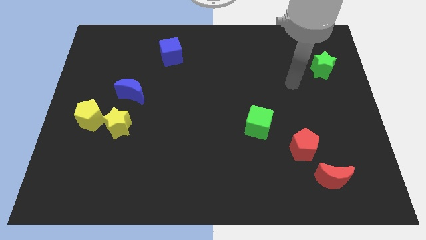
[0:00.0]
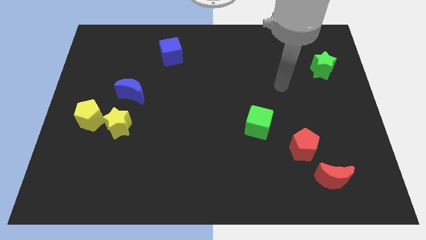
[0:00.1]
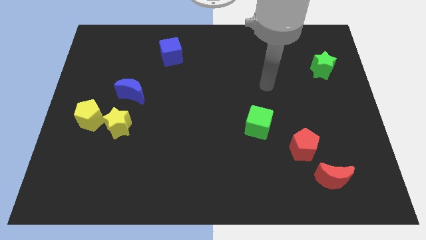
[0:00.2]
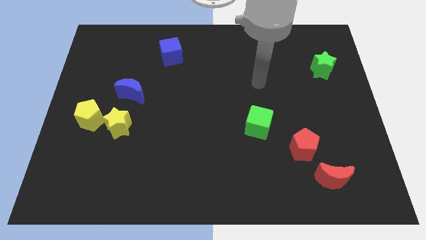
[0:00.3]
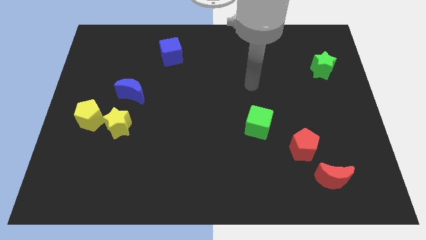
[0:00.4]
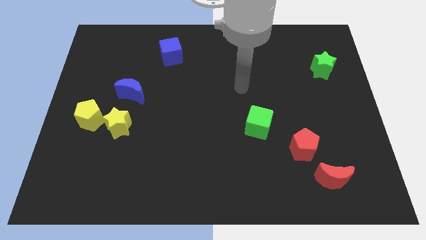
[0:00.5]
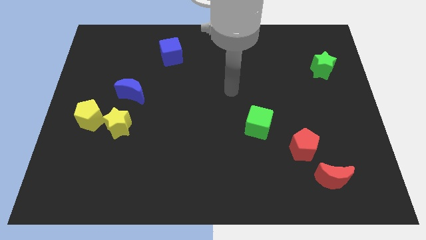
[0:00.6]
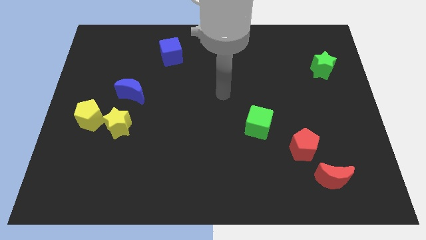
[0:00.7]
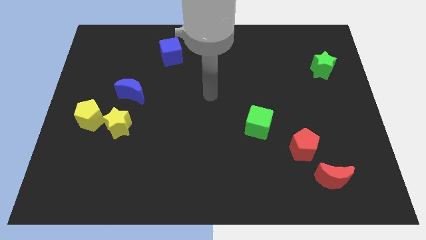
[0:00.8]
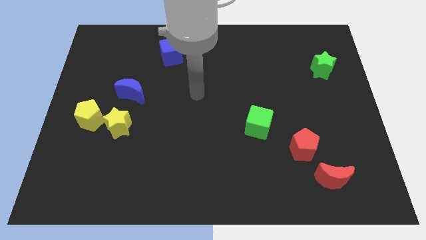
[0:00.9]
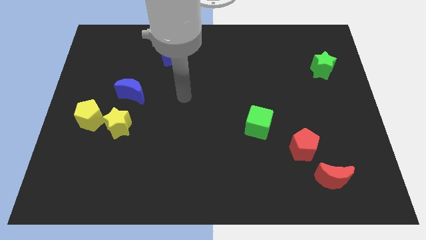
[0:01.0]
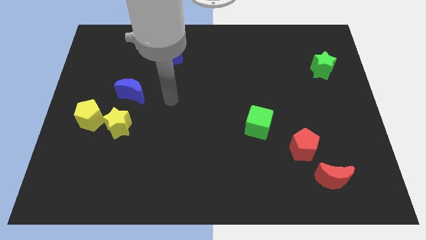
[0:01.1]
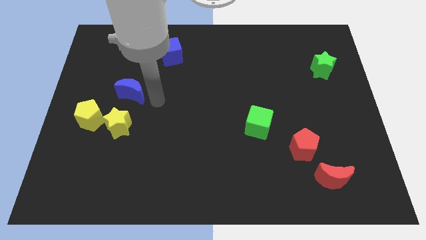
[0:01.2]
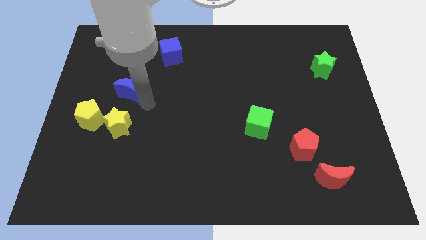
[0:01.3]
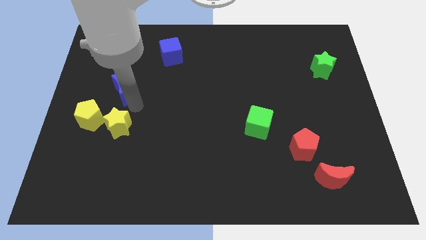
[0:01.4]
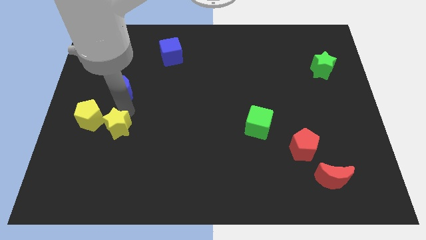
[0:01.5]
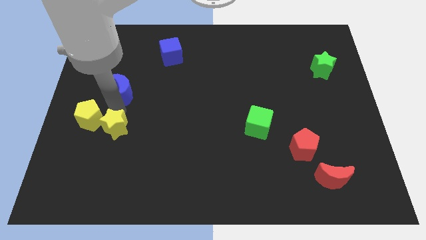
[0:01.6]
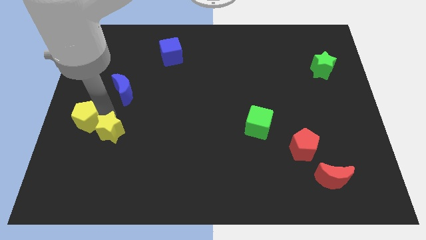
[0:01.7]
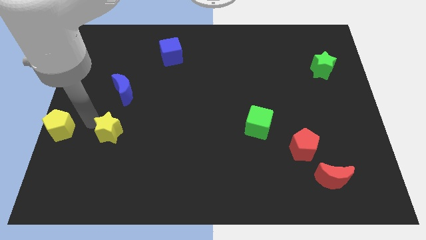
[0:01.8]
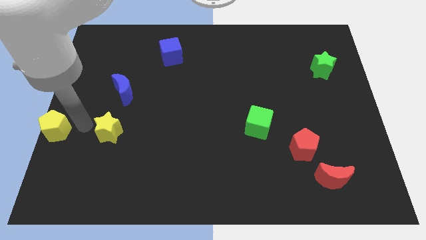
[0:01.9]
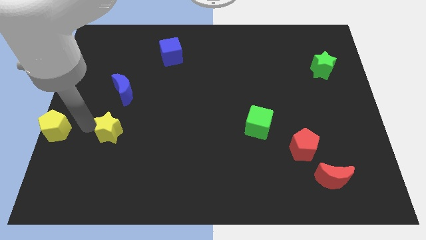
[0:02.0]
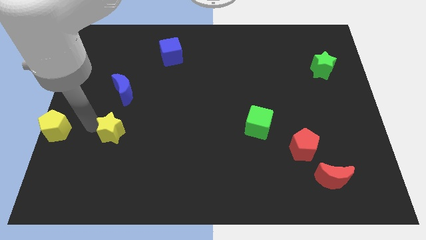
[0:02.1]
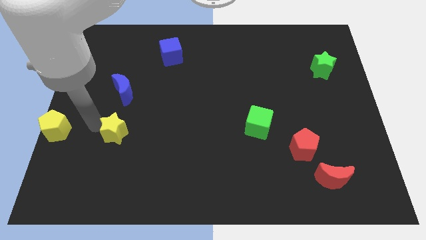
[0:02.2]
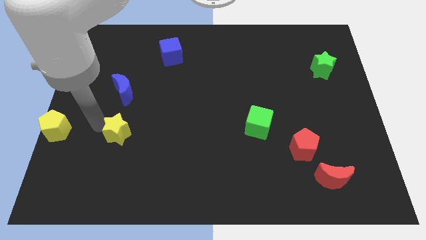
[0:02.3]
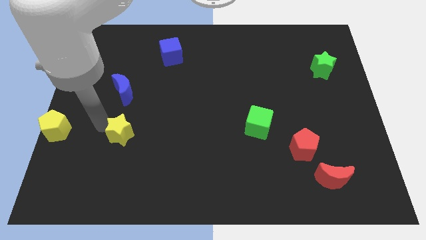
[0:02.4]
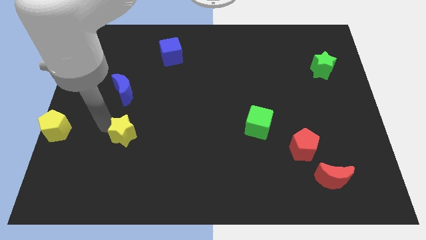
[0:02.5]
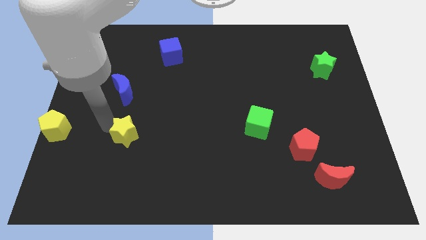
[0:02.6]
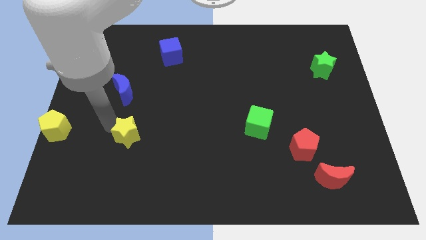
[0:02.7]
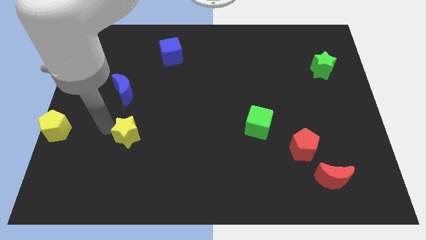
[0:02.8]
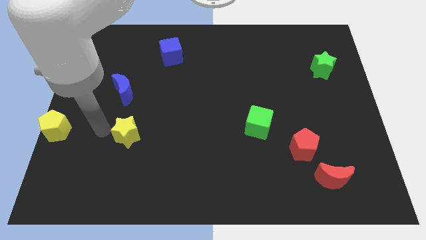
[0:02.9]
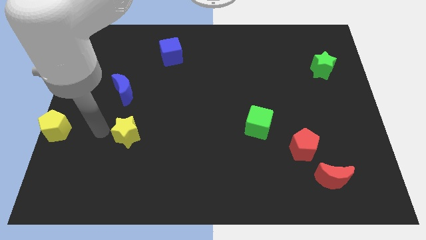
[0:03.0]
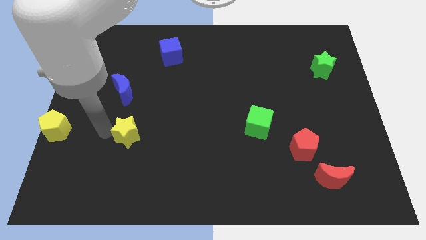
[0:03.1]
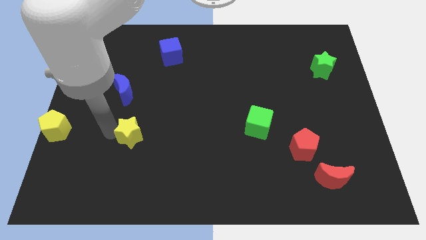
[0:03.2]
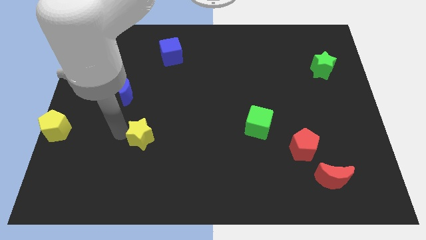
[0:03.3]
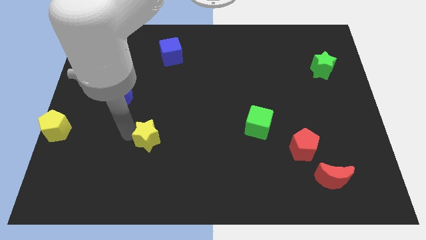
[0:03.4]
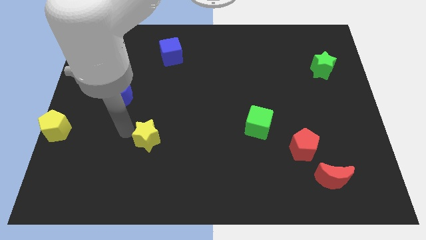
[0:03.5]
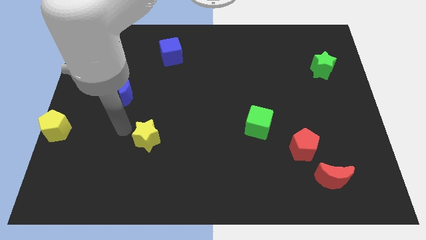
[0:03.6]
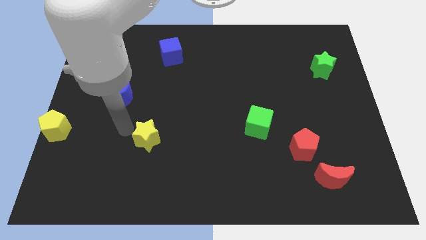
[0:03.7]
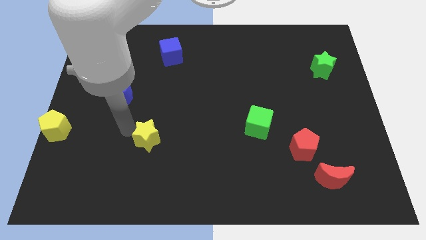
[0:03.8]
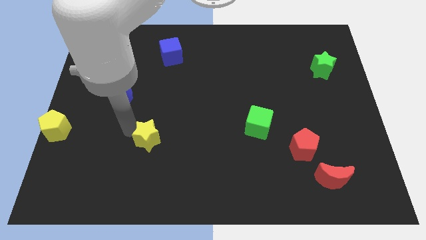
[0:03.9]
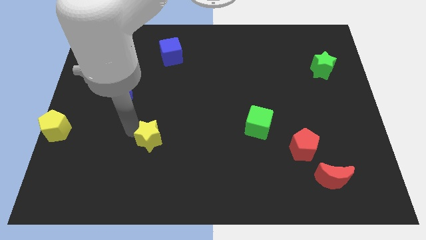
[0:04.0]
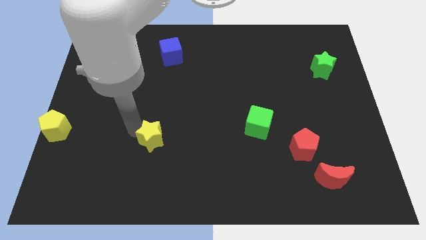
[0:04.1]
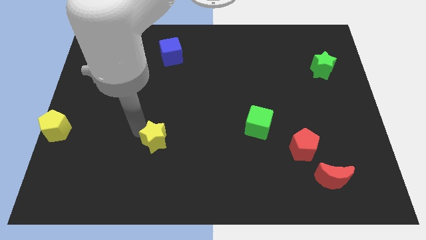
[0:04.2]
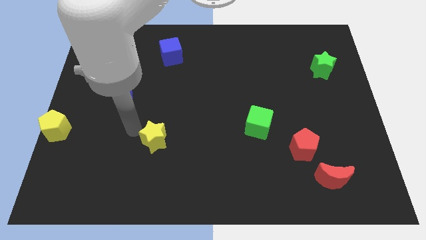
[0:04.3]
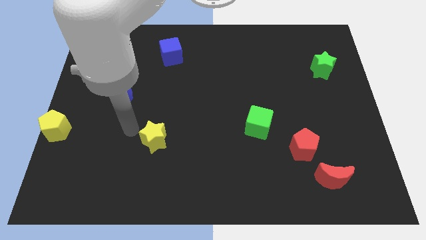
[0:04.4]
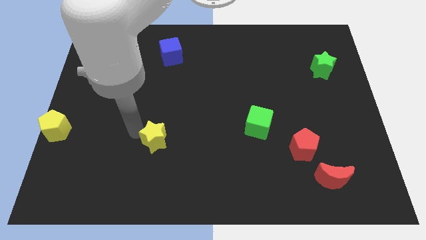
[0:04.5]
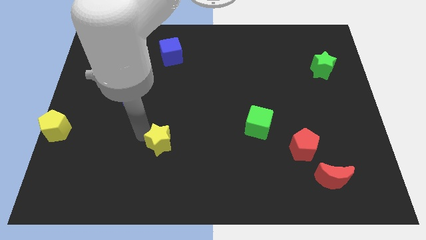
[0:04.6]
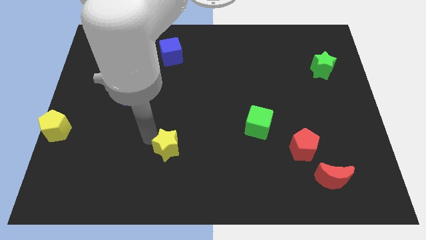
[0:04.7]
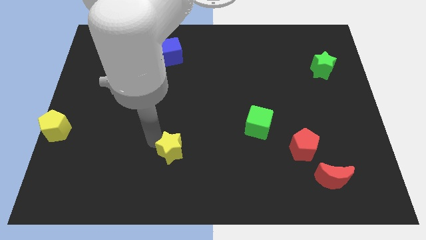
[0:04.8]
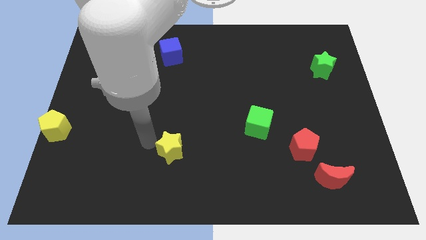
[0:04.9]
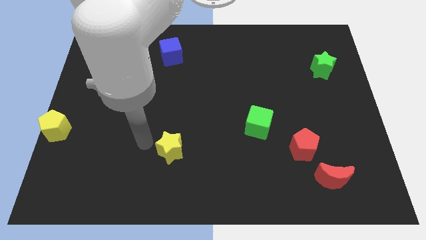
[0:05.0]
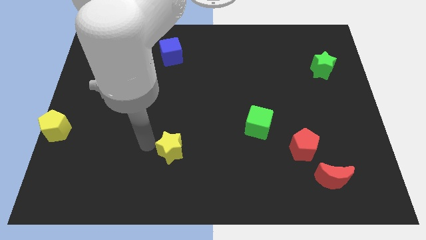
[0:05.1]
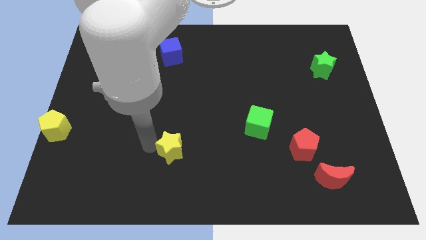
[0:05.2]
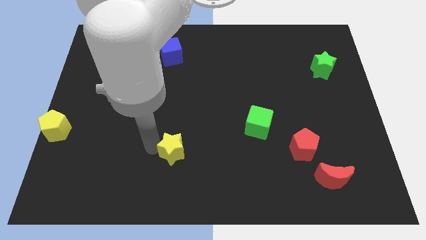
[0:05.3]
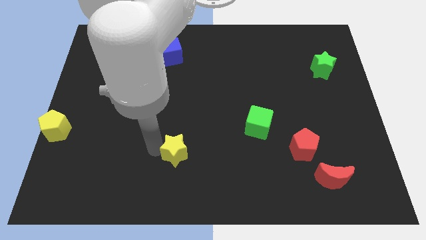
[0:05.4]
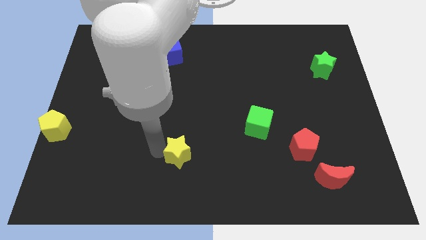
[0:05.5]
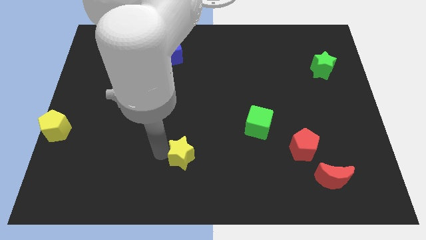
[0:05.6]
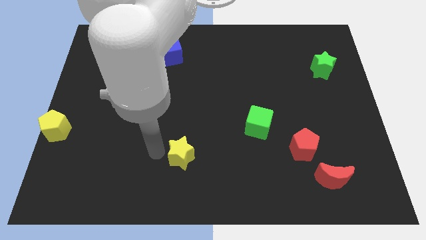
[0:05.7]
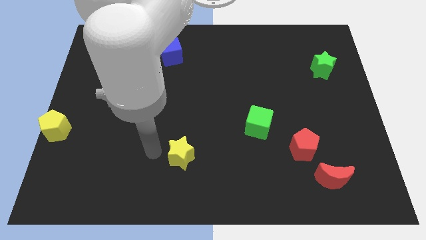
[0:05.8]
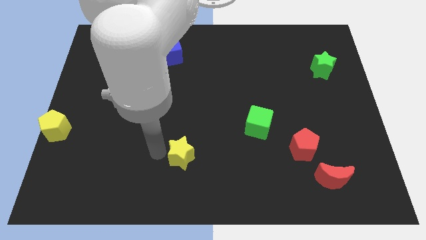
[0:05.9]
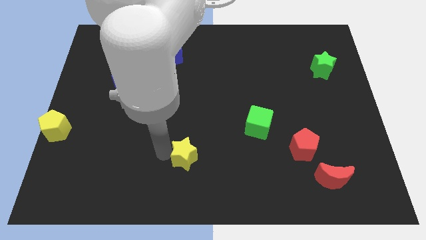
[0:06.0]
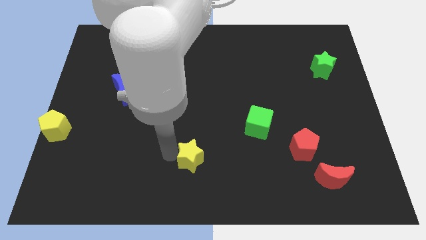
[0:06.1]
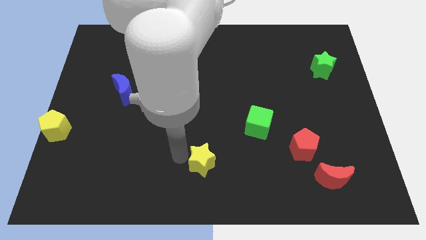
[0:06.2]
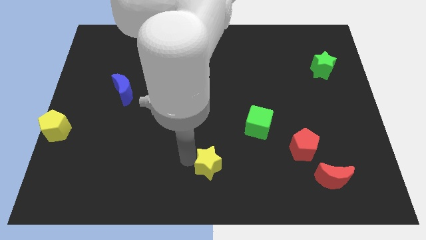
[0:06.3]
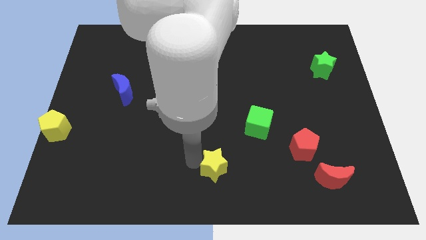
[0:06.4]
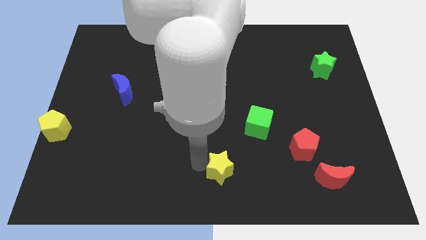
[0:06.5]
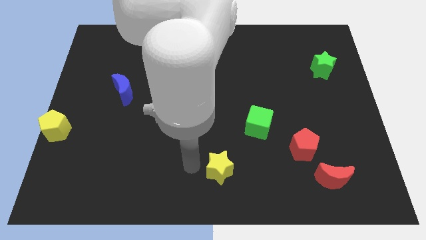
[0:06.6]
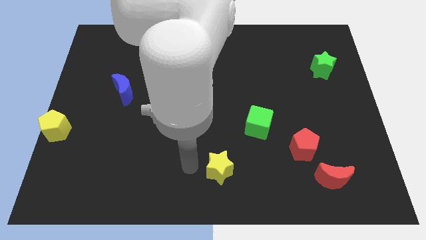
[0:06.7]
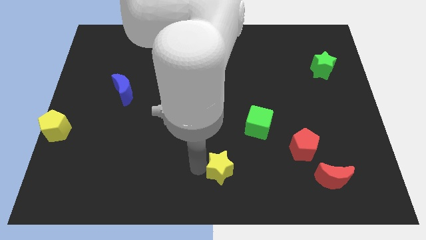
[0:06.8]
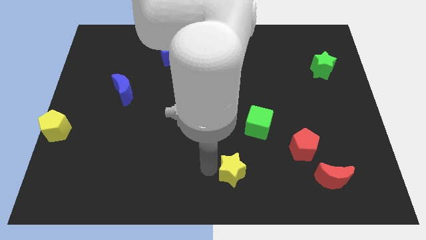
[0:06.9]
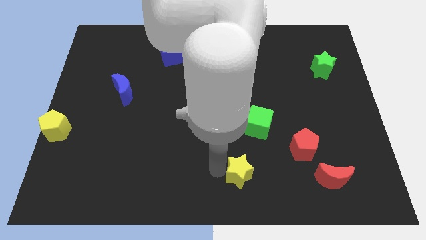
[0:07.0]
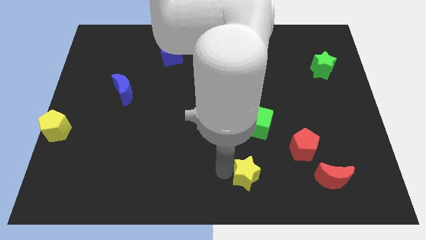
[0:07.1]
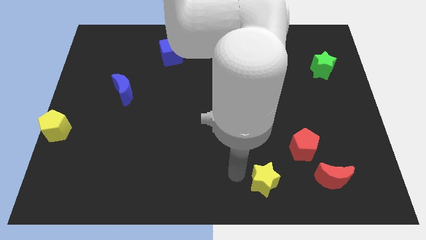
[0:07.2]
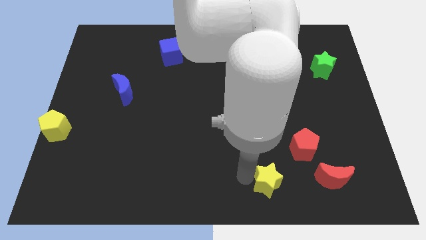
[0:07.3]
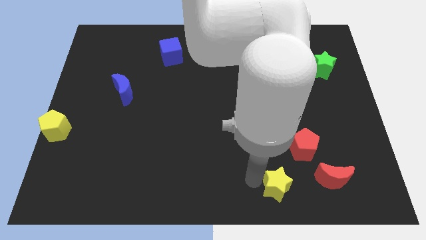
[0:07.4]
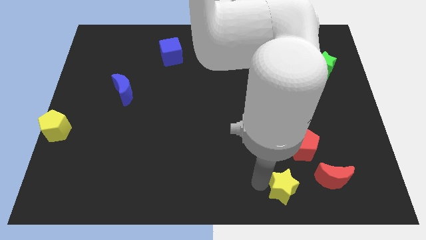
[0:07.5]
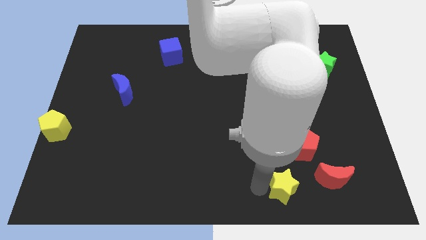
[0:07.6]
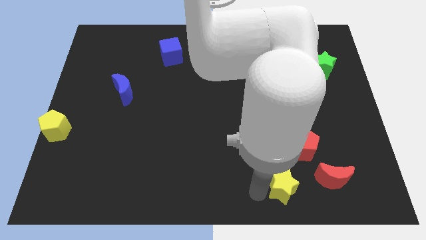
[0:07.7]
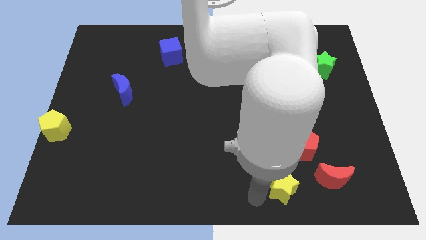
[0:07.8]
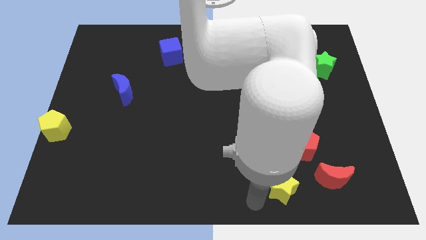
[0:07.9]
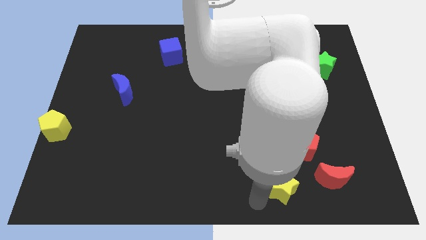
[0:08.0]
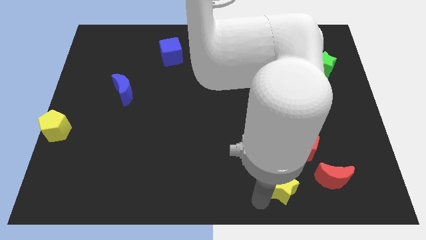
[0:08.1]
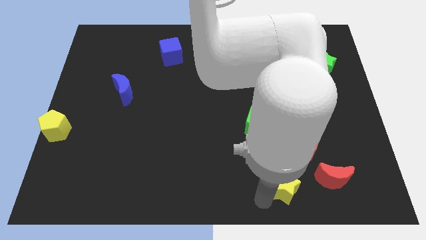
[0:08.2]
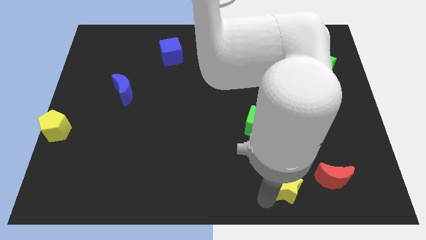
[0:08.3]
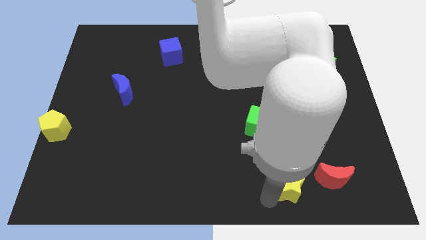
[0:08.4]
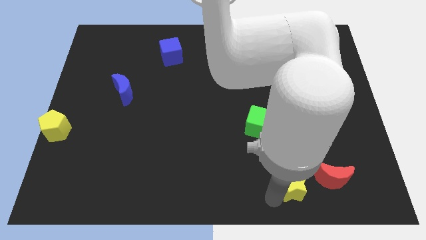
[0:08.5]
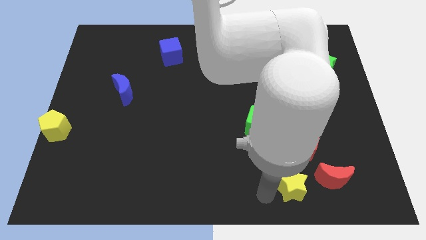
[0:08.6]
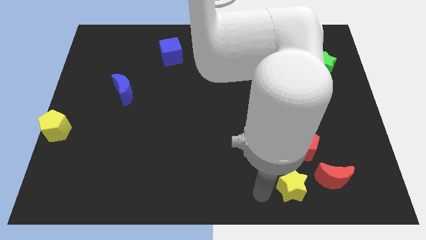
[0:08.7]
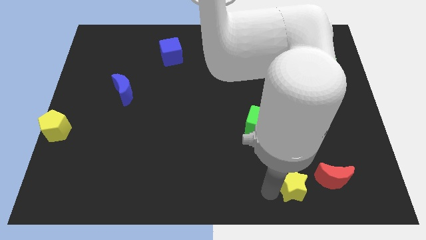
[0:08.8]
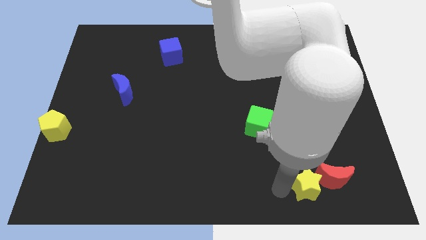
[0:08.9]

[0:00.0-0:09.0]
push the yellow star towards the red moon
